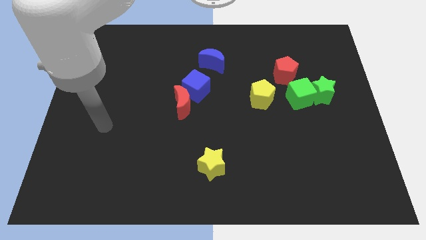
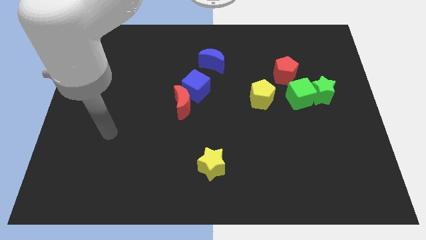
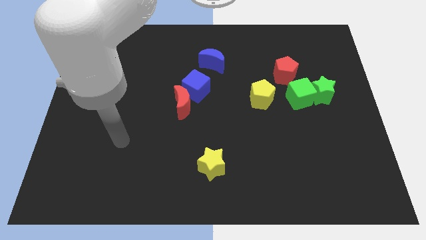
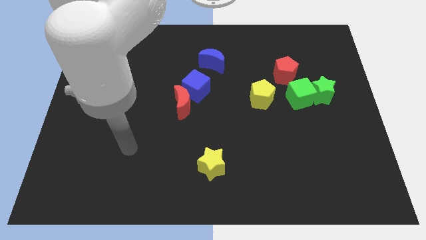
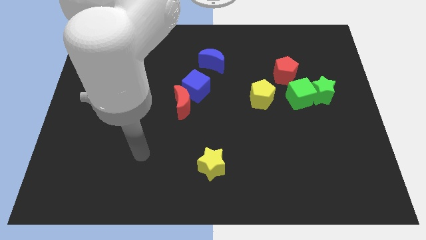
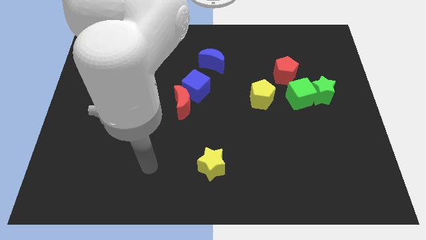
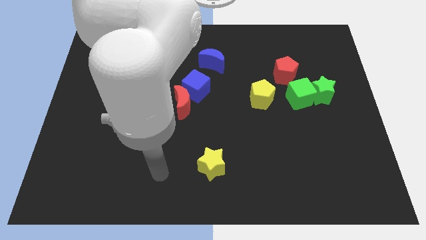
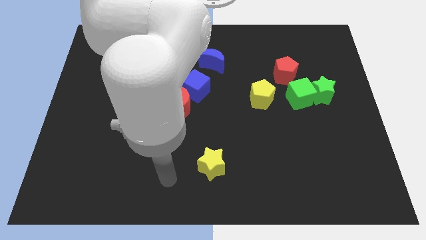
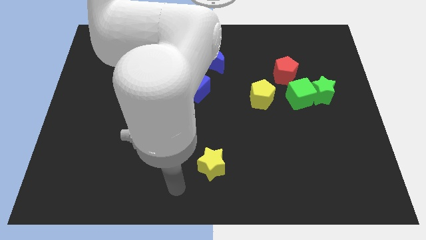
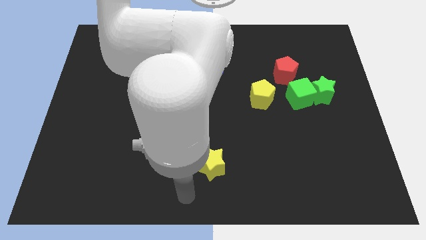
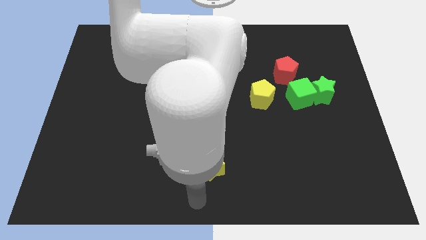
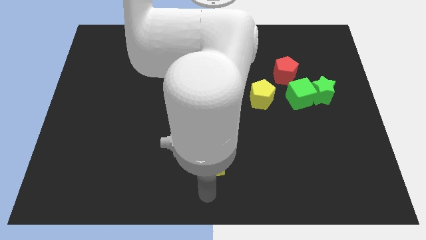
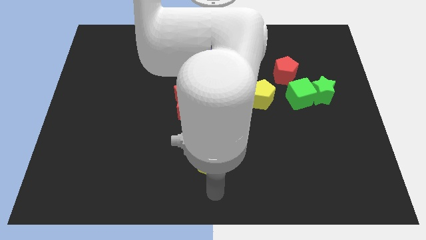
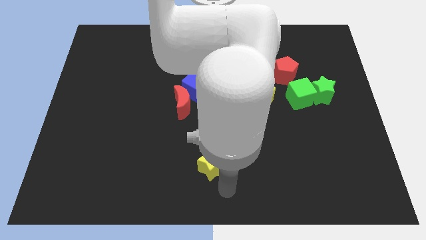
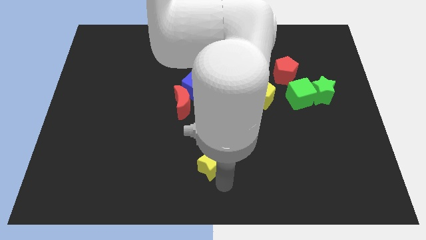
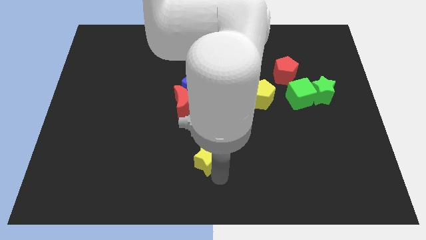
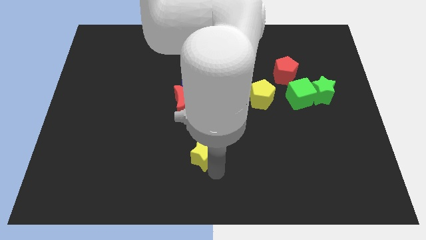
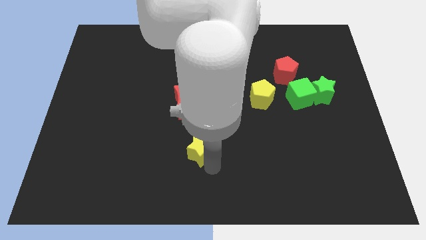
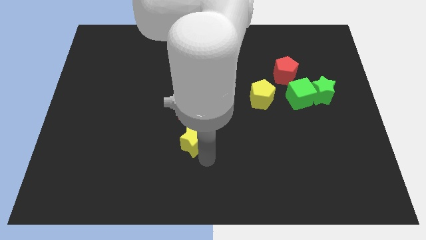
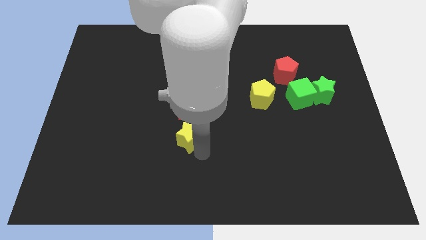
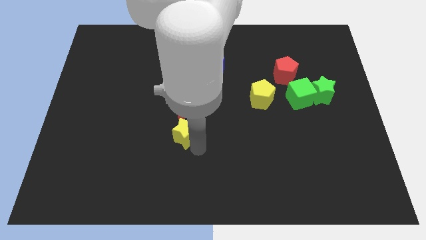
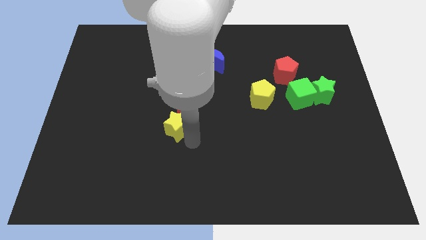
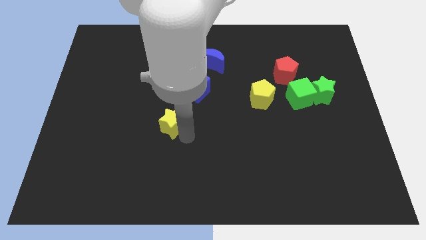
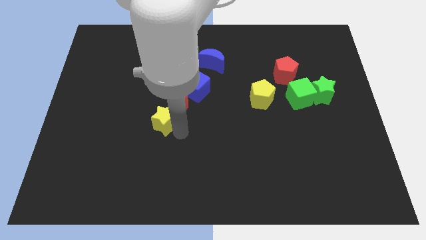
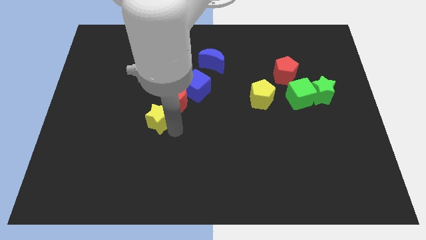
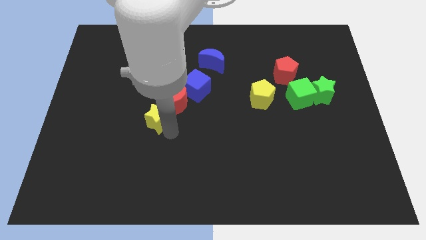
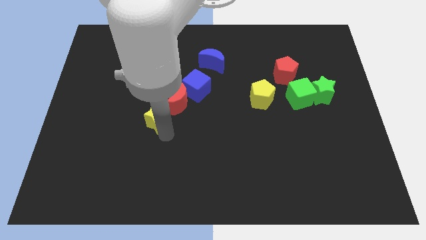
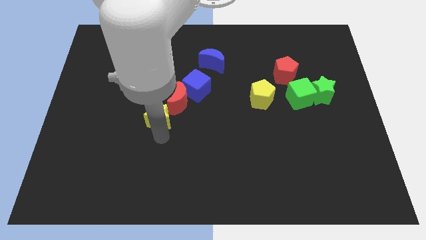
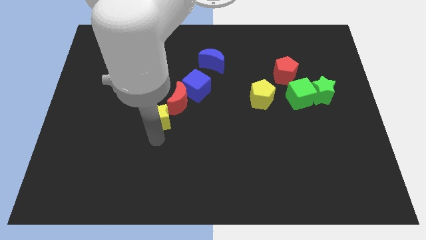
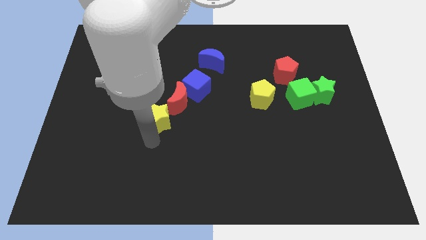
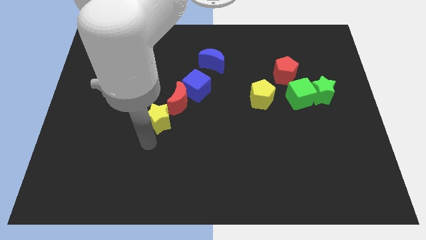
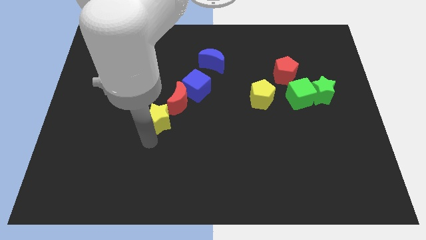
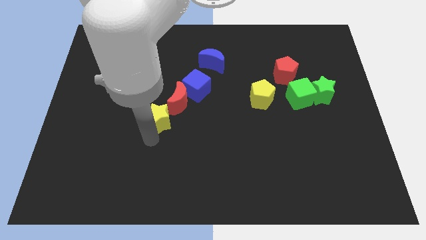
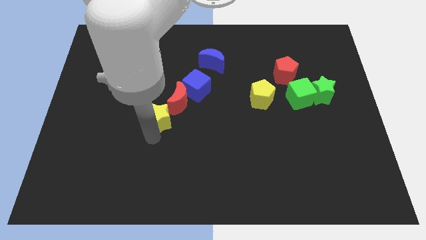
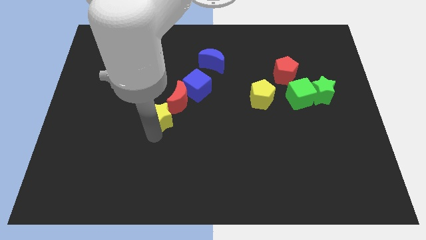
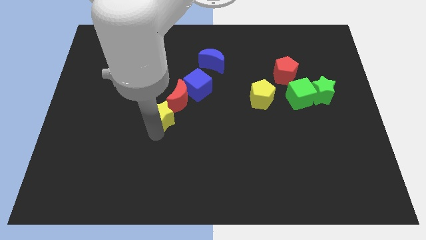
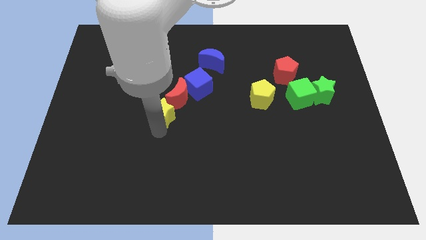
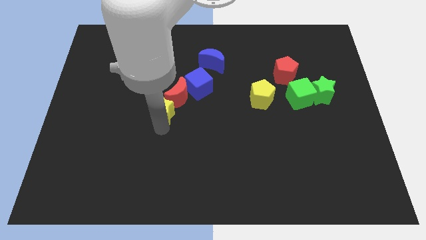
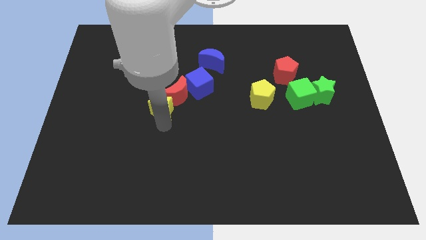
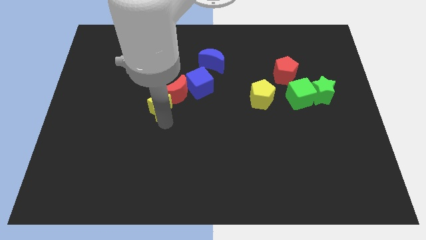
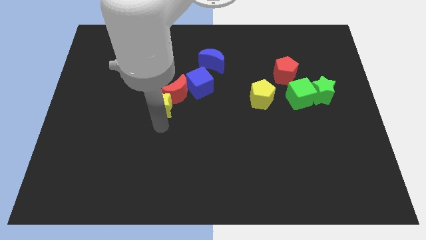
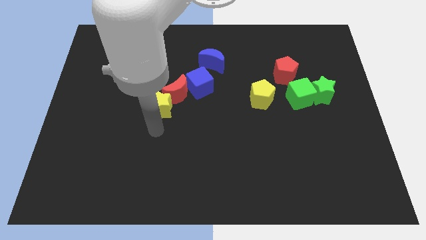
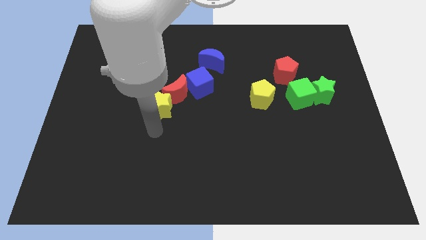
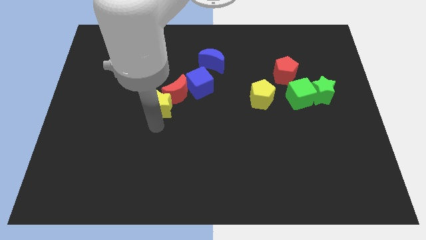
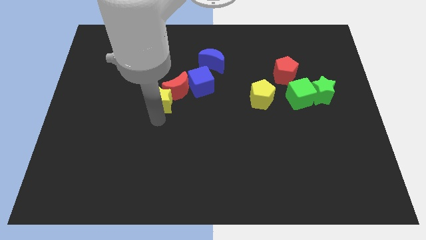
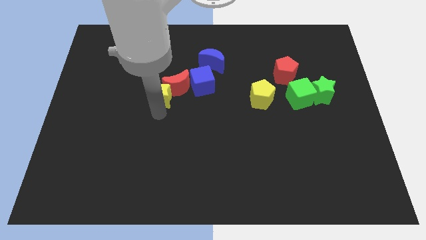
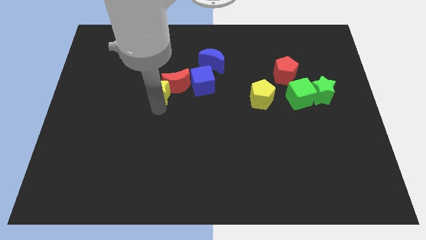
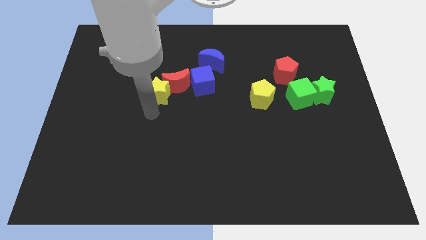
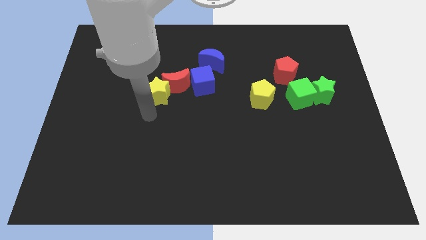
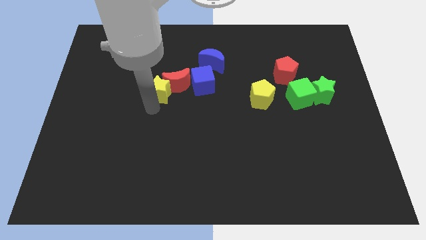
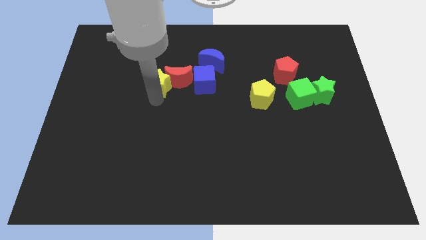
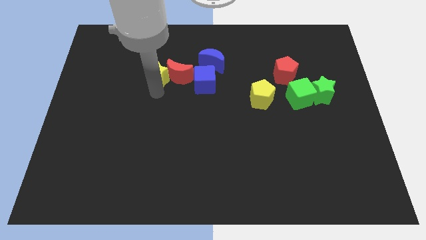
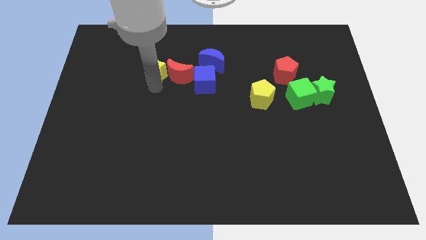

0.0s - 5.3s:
put the yellow star to the left of the blue moon

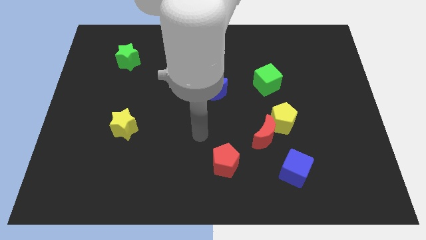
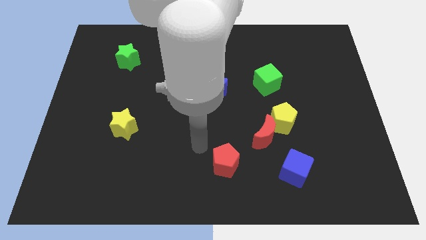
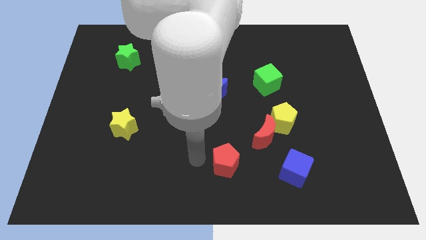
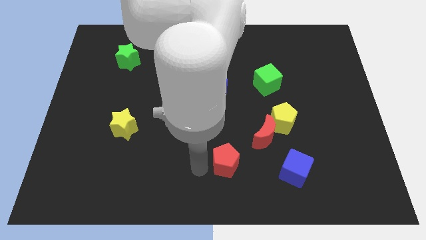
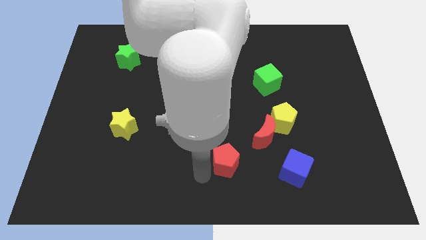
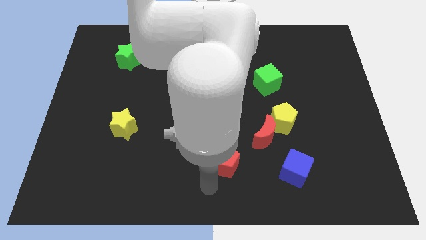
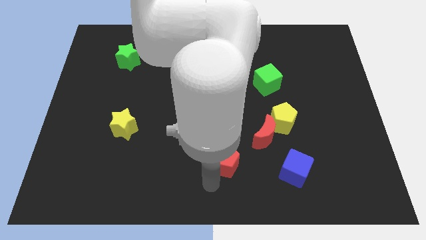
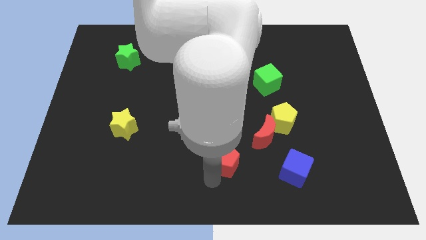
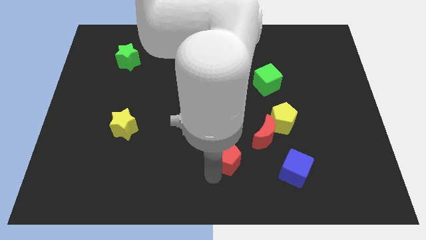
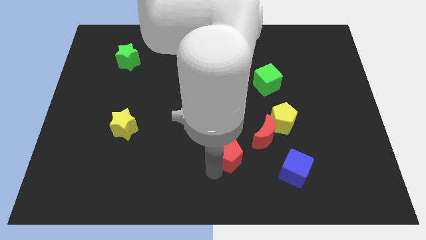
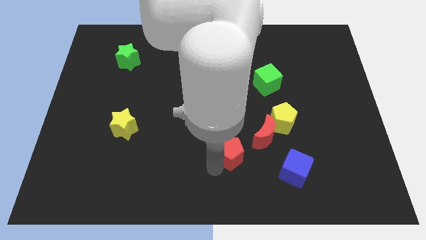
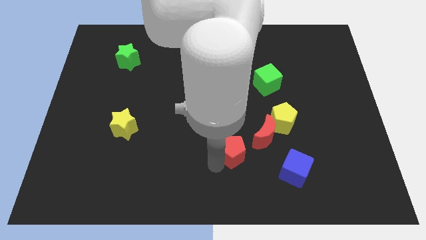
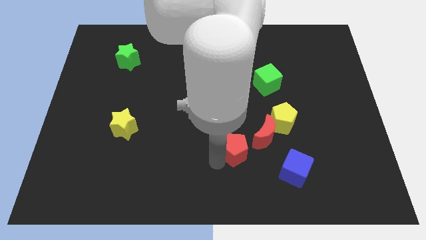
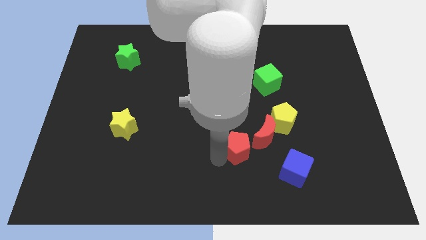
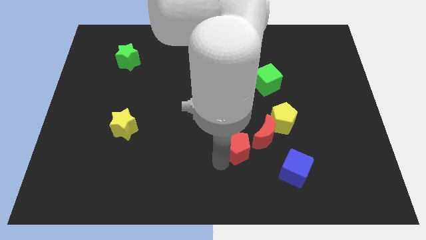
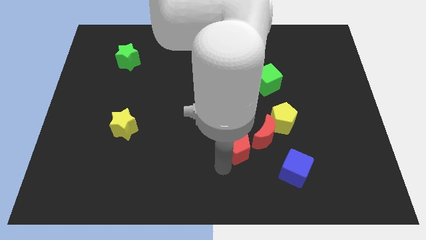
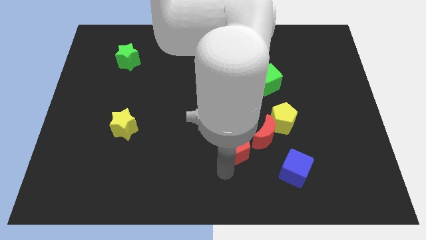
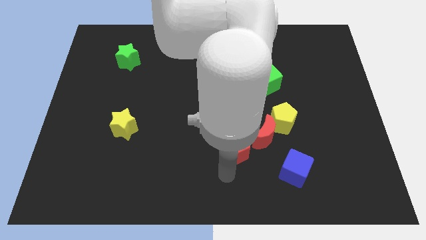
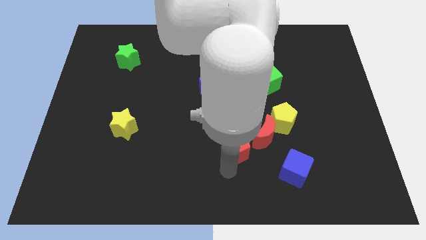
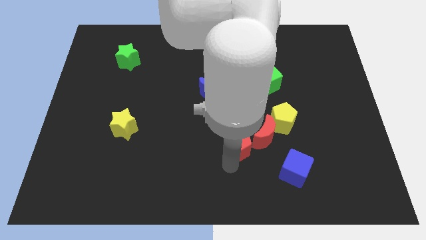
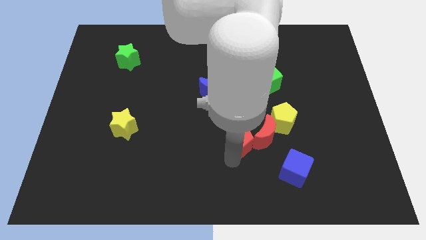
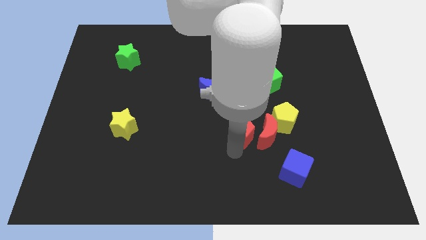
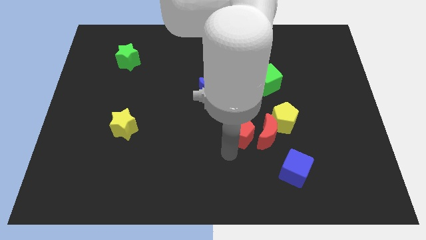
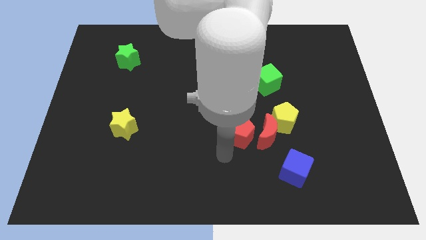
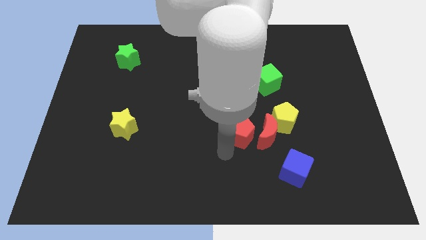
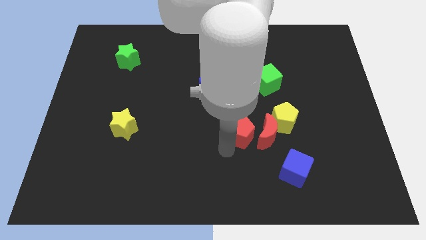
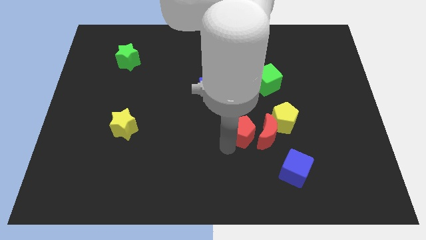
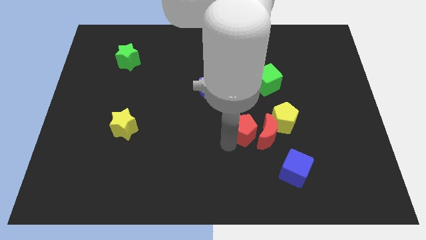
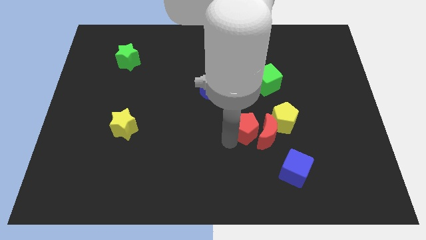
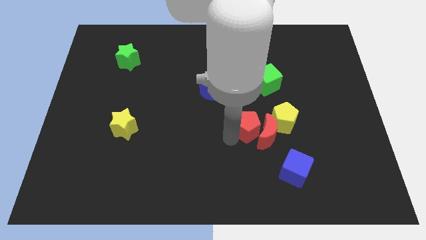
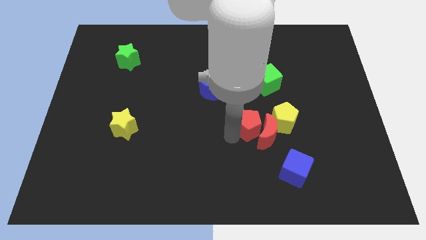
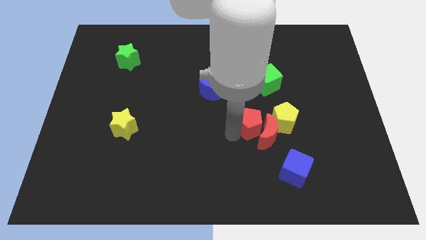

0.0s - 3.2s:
slide the red pentagon to the top side of the red moon
